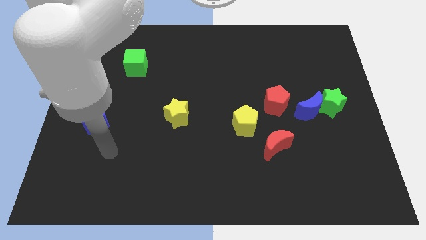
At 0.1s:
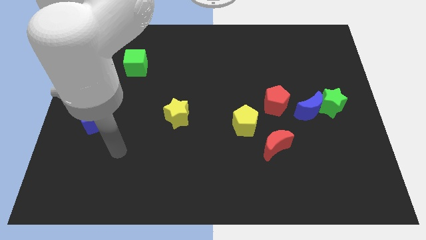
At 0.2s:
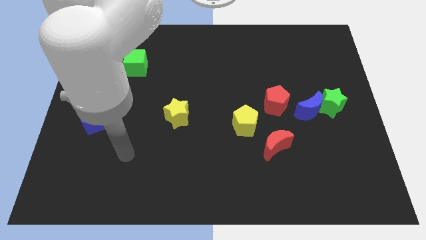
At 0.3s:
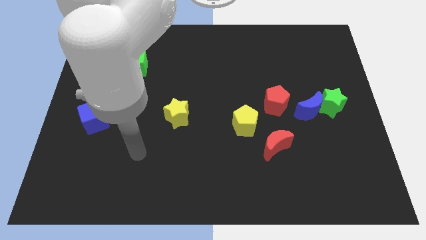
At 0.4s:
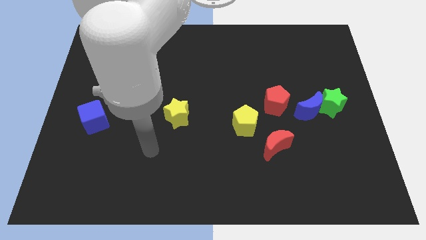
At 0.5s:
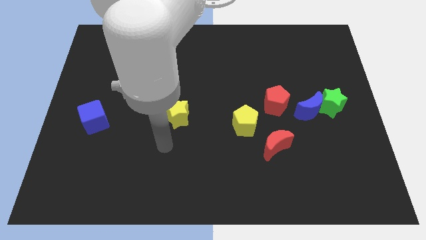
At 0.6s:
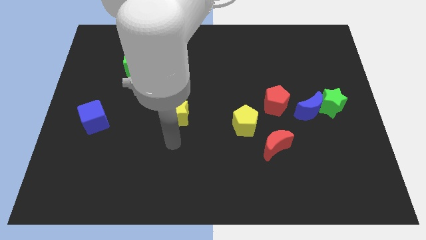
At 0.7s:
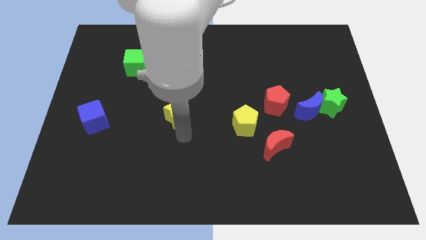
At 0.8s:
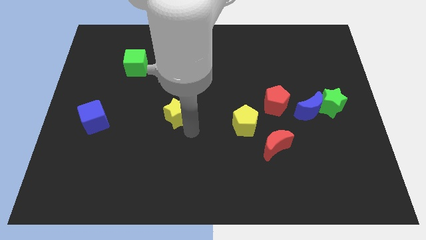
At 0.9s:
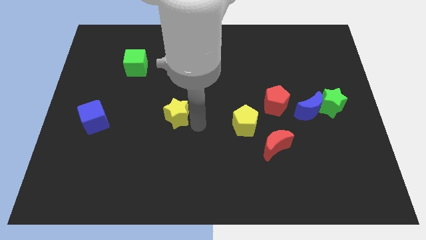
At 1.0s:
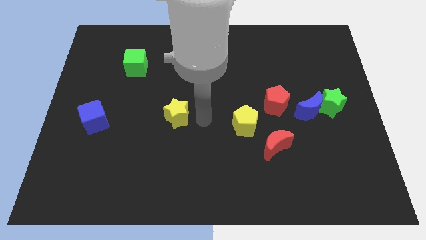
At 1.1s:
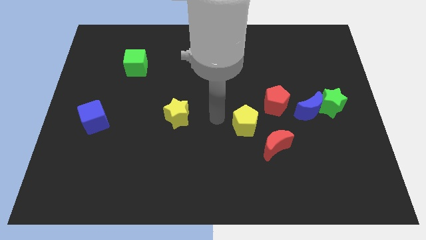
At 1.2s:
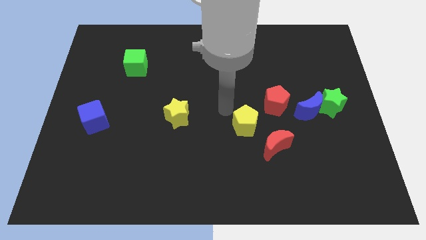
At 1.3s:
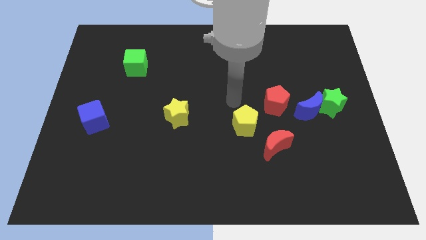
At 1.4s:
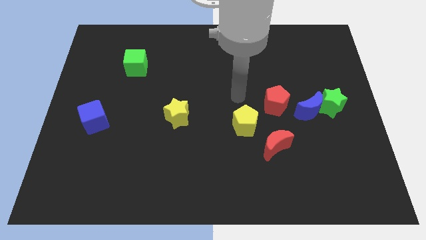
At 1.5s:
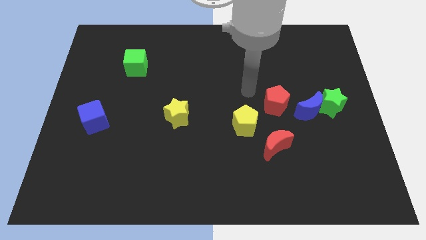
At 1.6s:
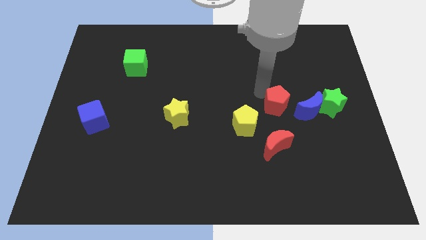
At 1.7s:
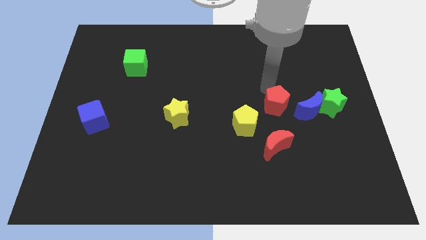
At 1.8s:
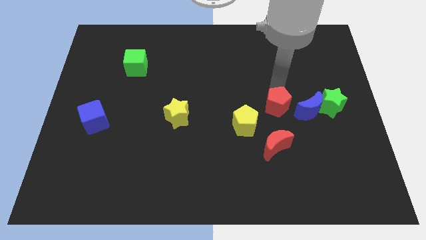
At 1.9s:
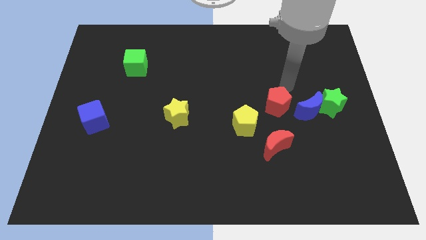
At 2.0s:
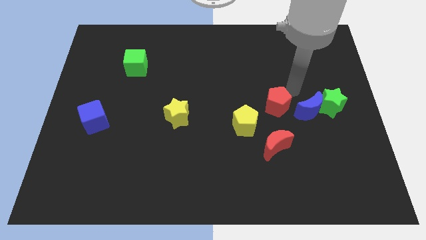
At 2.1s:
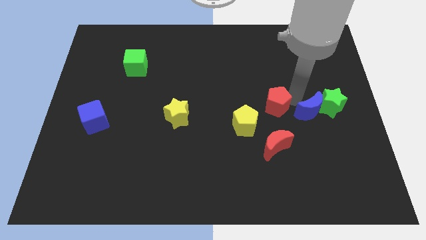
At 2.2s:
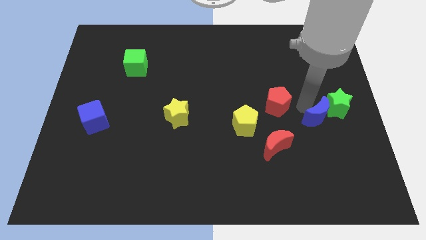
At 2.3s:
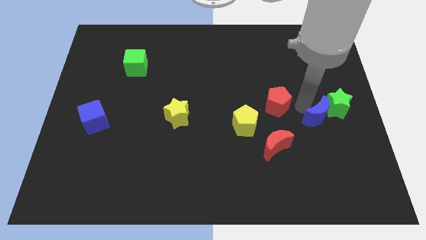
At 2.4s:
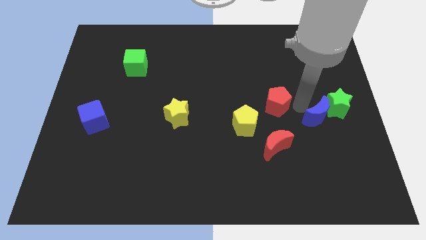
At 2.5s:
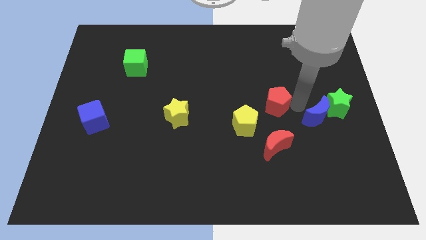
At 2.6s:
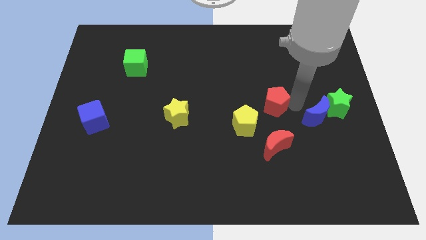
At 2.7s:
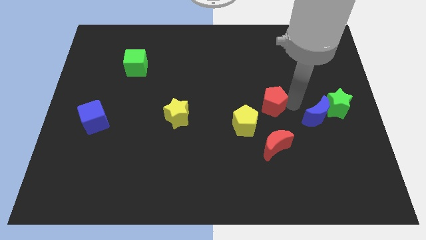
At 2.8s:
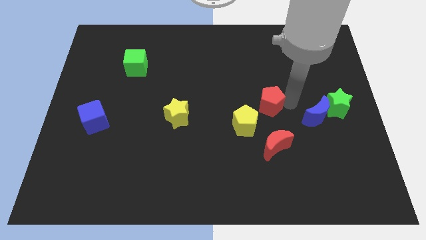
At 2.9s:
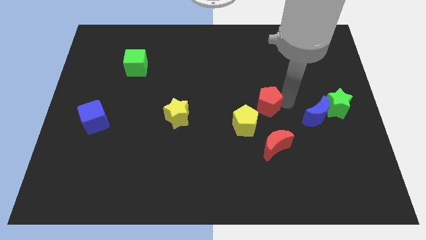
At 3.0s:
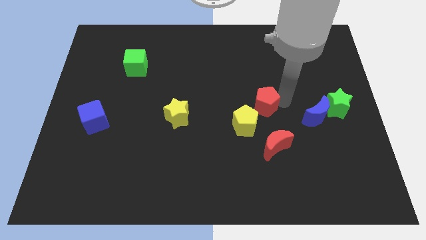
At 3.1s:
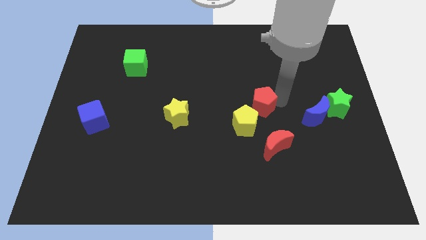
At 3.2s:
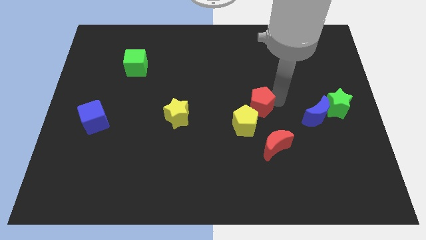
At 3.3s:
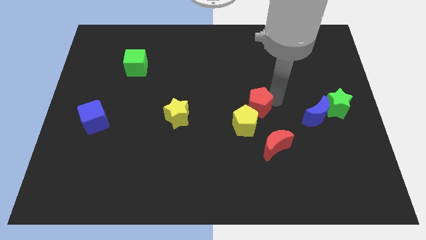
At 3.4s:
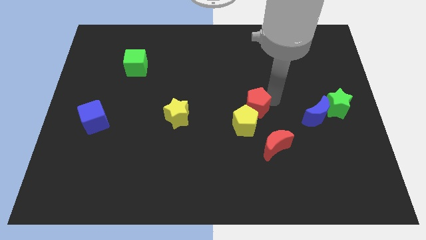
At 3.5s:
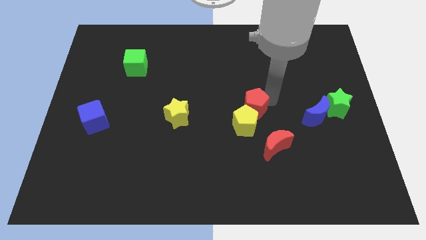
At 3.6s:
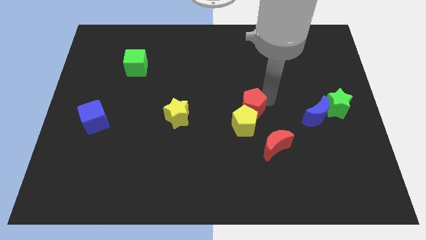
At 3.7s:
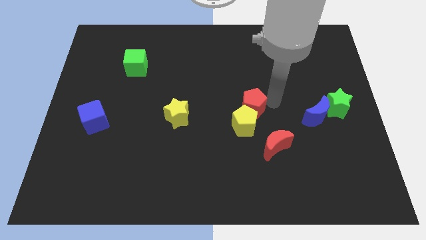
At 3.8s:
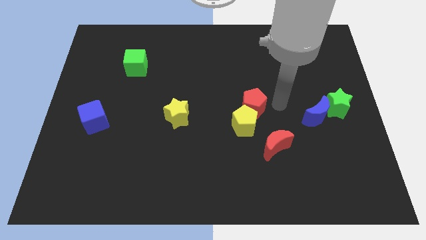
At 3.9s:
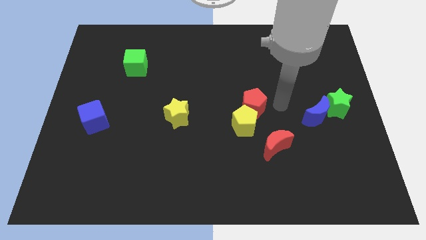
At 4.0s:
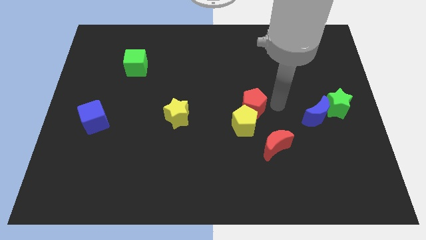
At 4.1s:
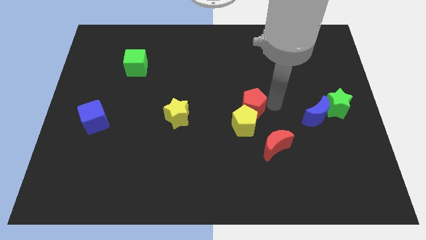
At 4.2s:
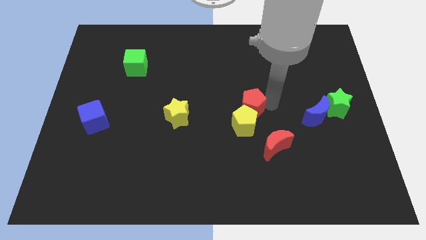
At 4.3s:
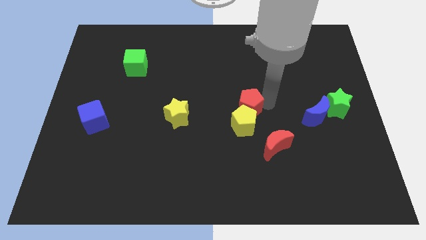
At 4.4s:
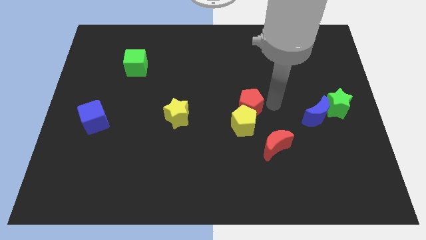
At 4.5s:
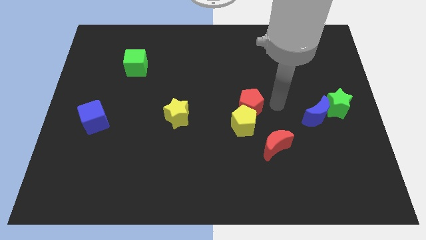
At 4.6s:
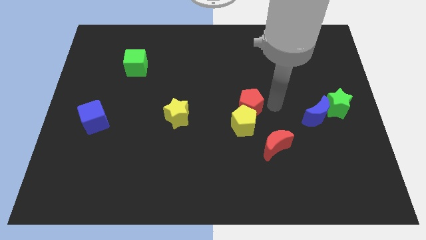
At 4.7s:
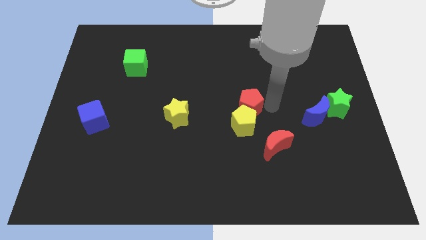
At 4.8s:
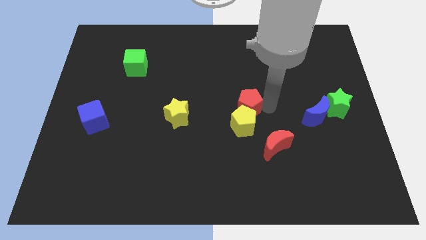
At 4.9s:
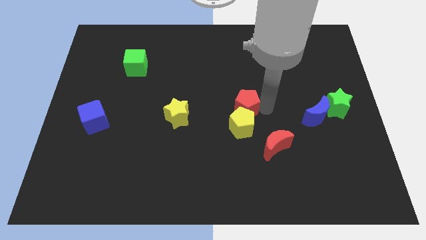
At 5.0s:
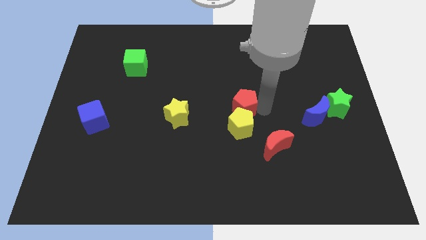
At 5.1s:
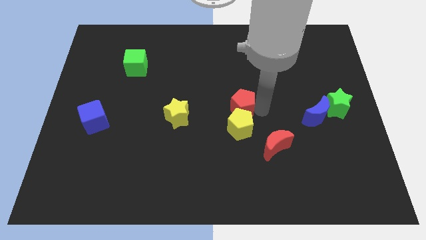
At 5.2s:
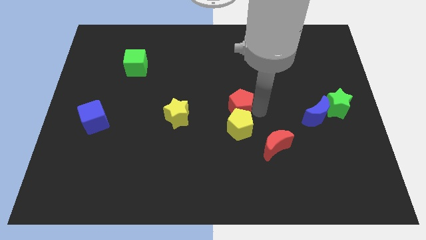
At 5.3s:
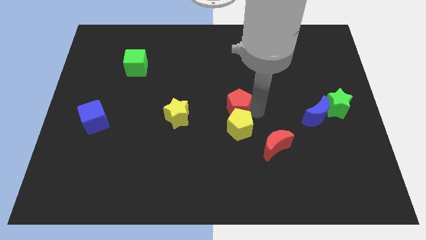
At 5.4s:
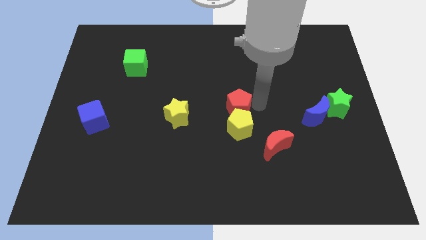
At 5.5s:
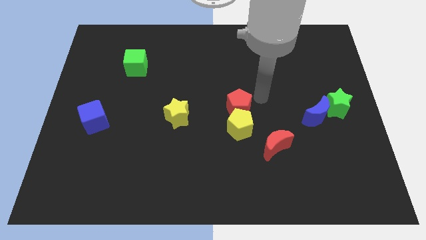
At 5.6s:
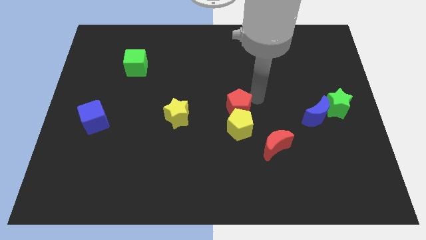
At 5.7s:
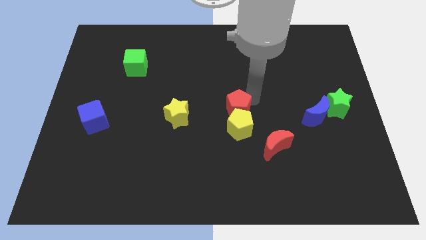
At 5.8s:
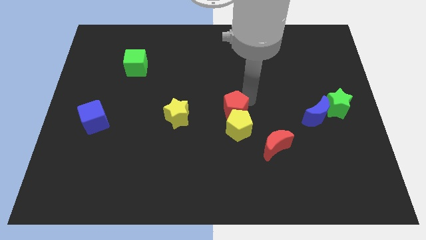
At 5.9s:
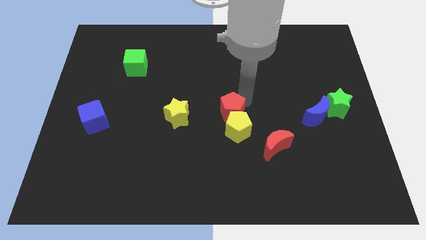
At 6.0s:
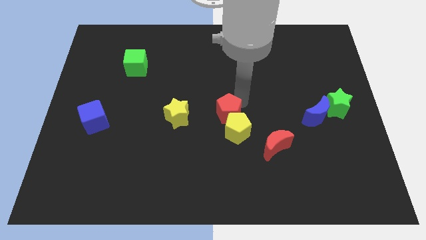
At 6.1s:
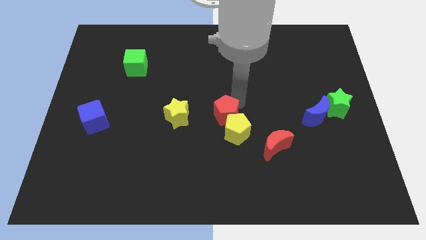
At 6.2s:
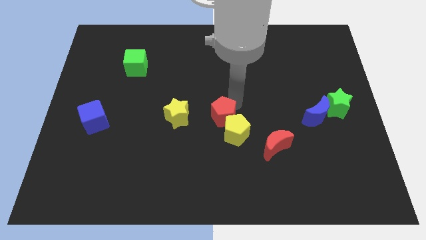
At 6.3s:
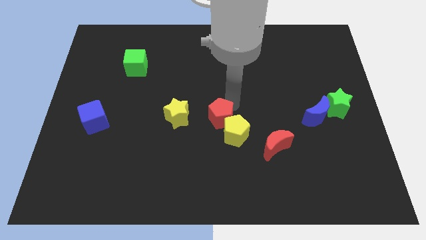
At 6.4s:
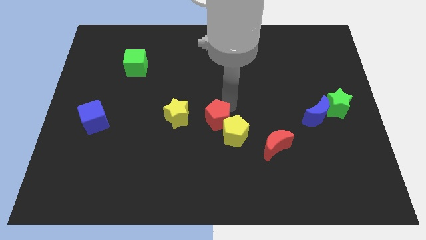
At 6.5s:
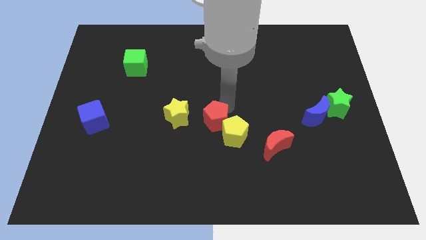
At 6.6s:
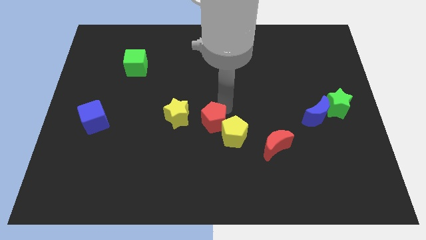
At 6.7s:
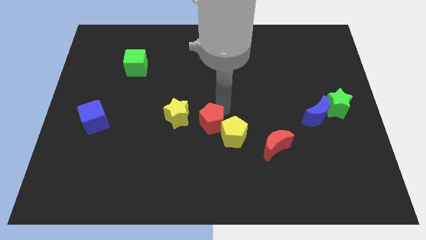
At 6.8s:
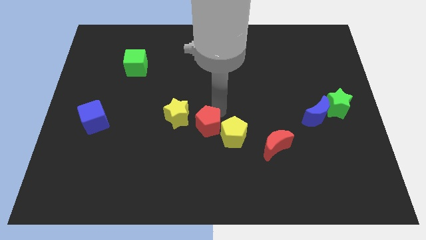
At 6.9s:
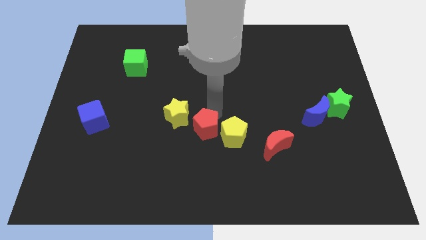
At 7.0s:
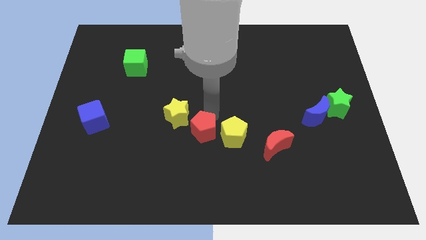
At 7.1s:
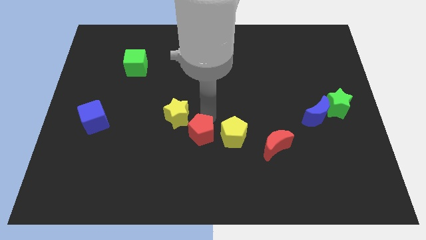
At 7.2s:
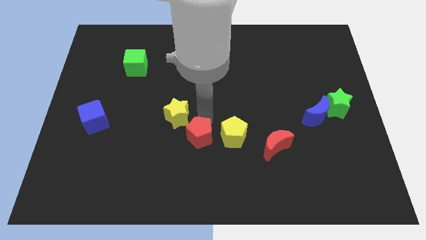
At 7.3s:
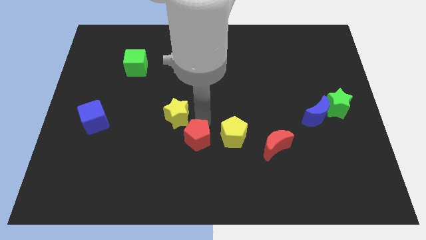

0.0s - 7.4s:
push the red pentagon to the bottom side of the yellow star
